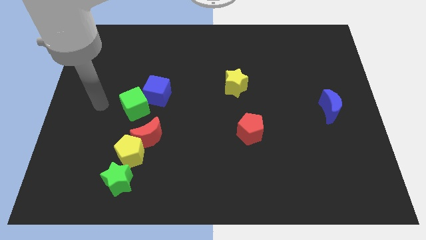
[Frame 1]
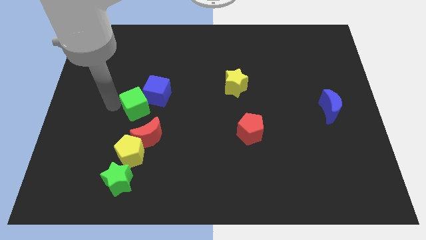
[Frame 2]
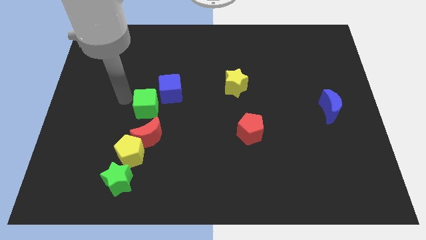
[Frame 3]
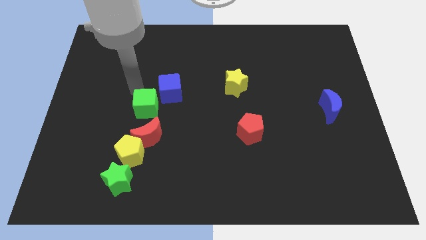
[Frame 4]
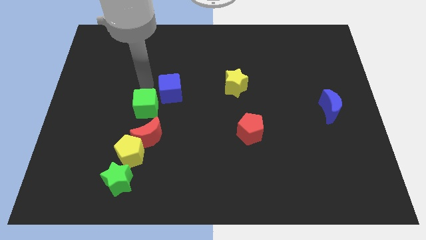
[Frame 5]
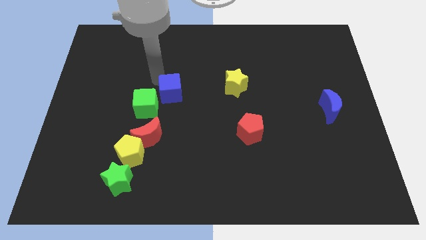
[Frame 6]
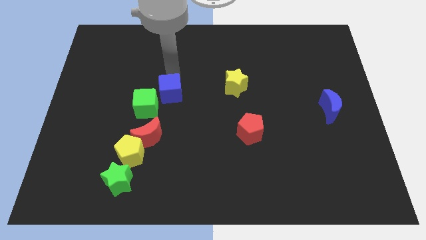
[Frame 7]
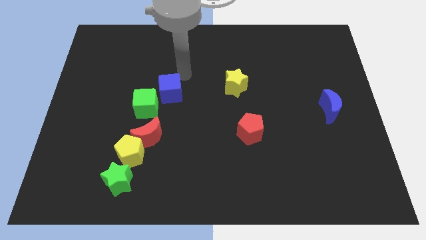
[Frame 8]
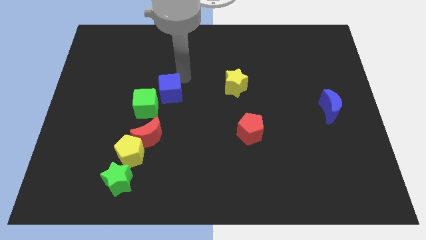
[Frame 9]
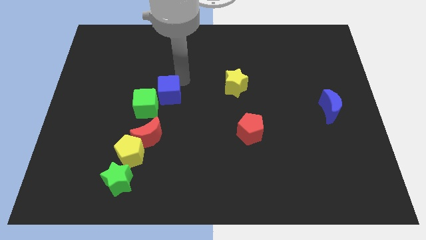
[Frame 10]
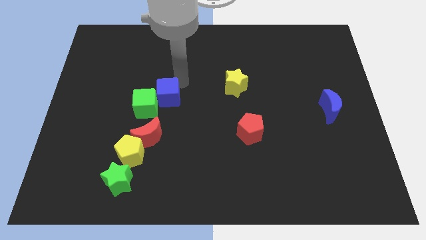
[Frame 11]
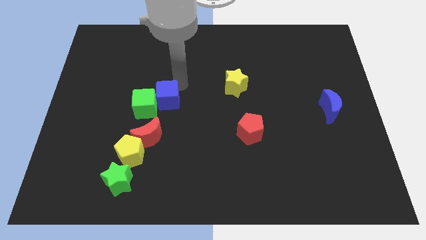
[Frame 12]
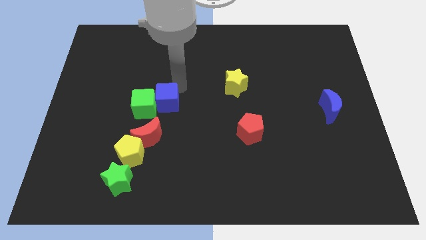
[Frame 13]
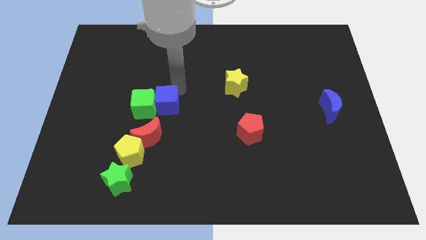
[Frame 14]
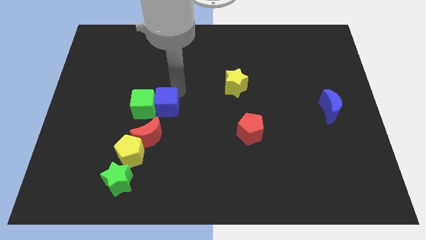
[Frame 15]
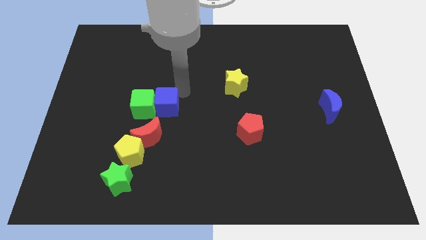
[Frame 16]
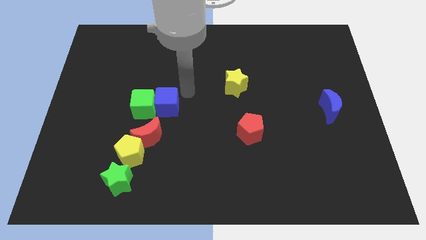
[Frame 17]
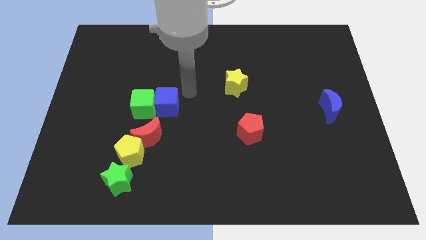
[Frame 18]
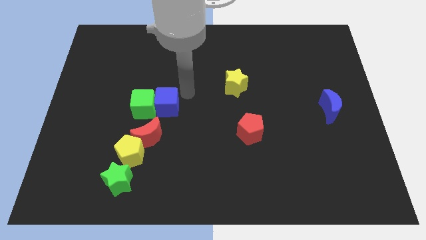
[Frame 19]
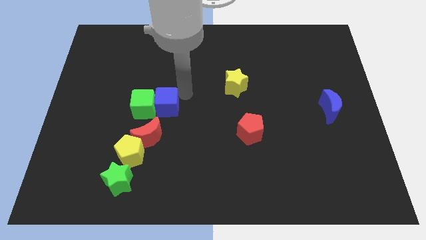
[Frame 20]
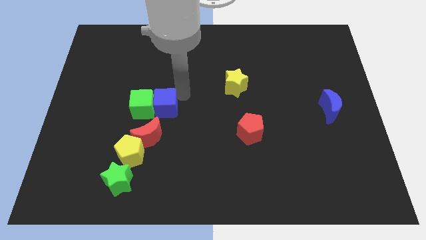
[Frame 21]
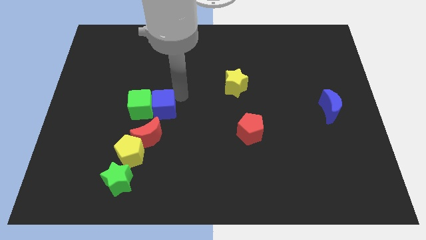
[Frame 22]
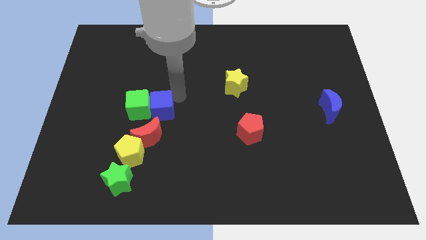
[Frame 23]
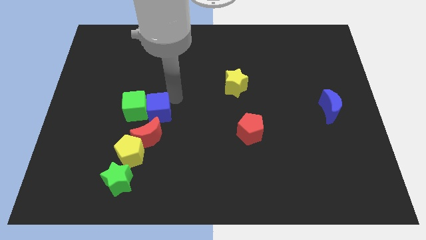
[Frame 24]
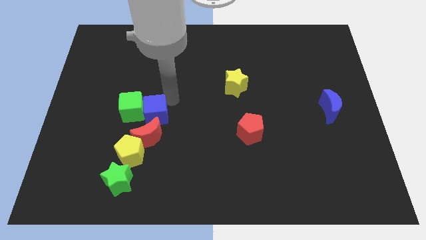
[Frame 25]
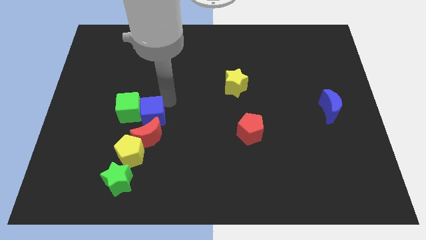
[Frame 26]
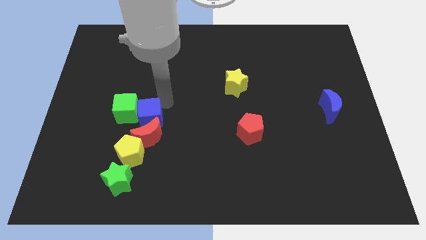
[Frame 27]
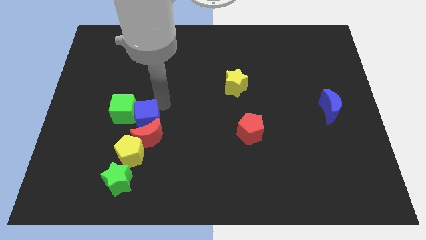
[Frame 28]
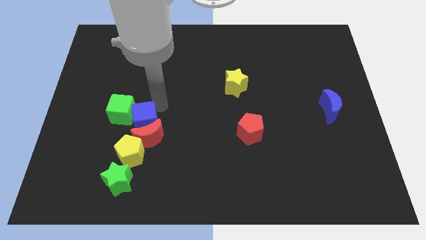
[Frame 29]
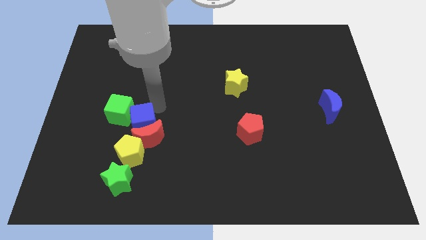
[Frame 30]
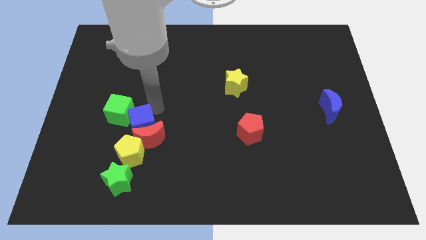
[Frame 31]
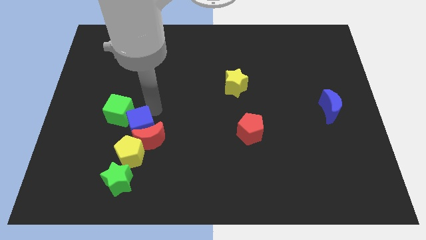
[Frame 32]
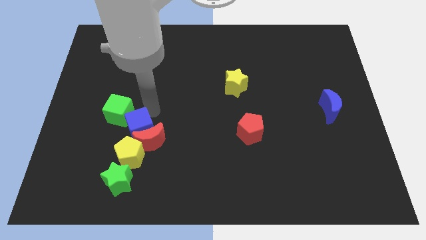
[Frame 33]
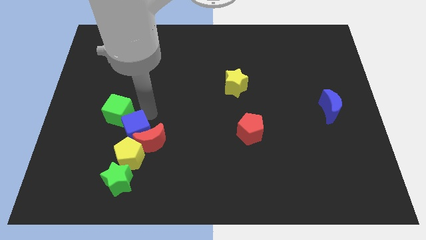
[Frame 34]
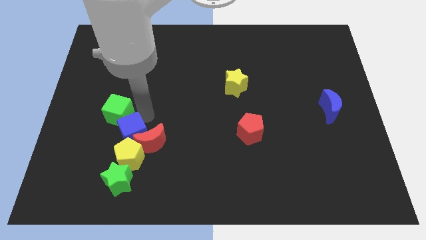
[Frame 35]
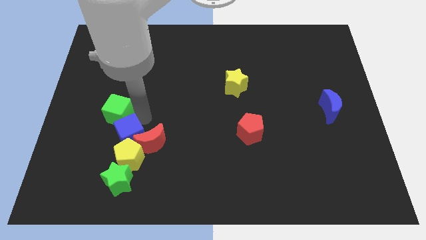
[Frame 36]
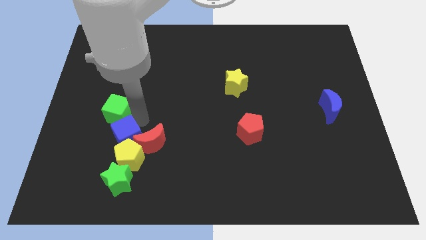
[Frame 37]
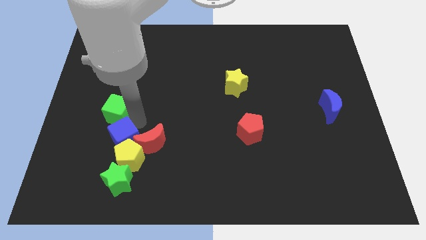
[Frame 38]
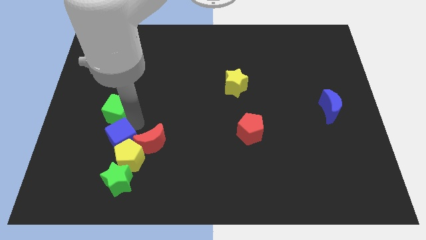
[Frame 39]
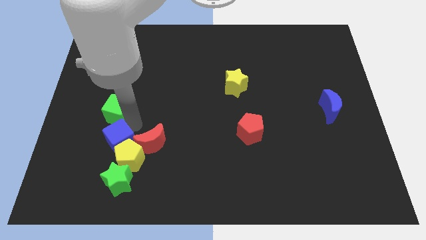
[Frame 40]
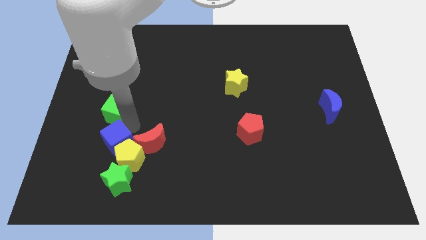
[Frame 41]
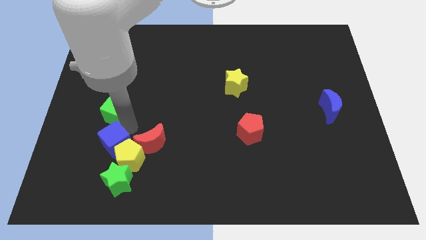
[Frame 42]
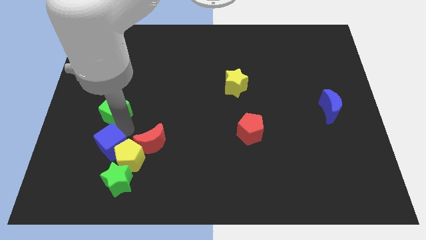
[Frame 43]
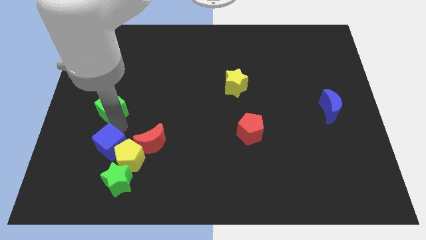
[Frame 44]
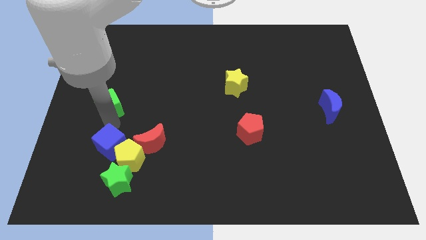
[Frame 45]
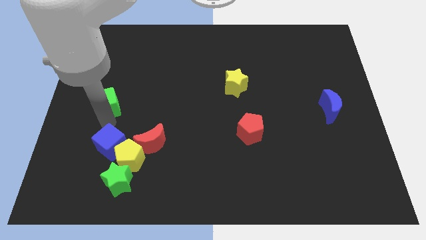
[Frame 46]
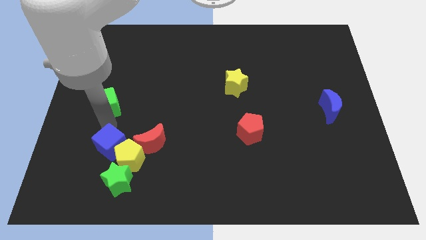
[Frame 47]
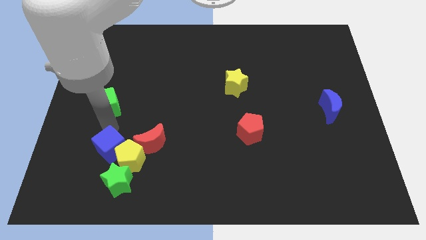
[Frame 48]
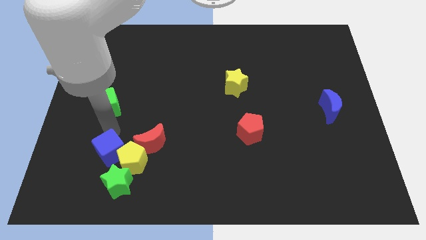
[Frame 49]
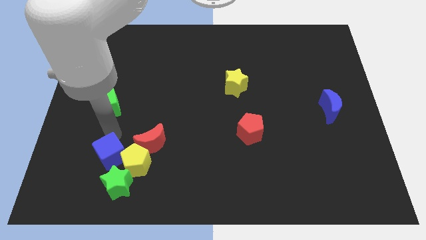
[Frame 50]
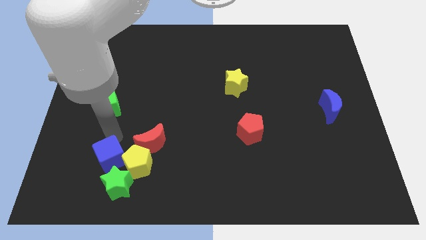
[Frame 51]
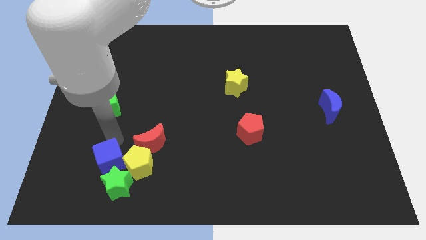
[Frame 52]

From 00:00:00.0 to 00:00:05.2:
slide the blue cube to the green star

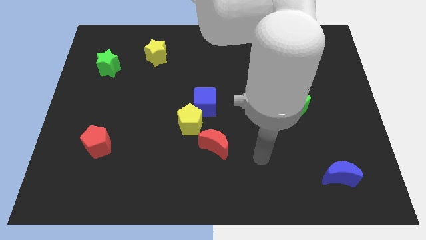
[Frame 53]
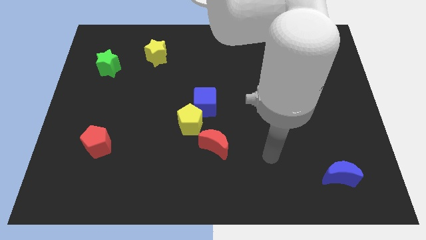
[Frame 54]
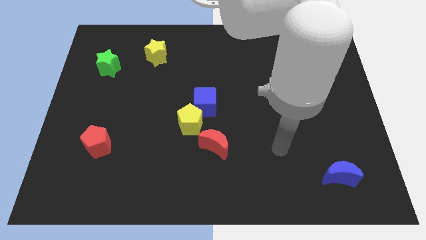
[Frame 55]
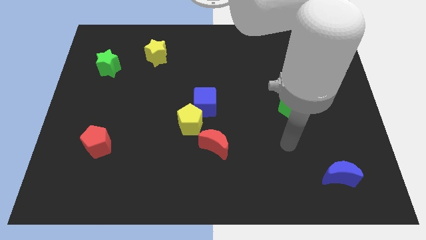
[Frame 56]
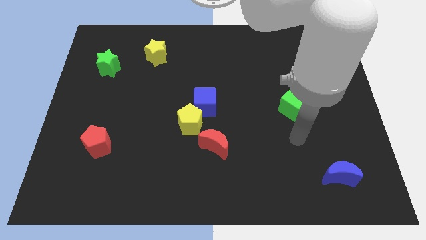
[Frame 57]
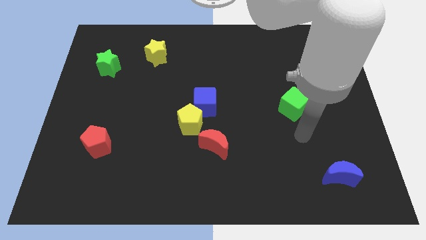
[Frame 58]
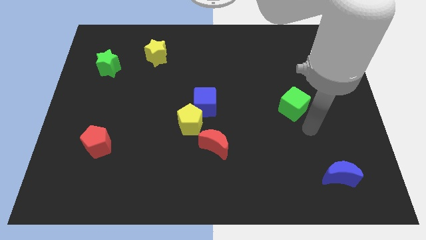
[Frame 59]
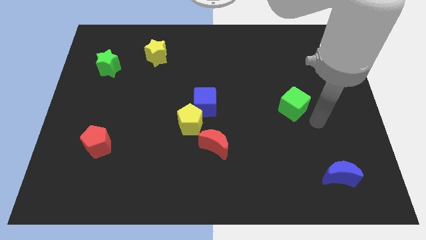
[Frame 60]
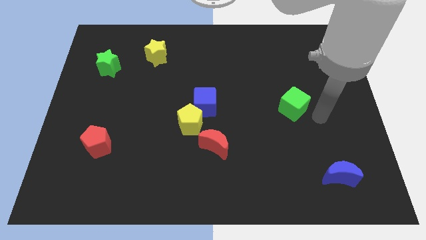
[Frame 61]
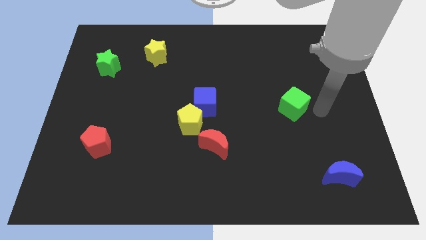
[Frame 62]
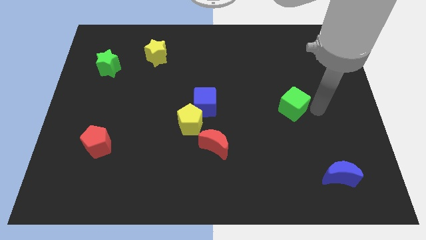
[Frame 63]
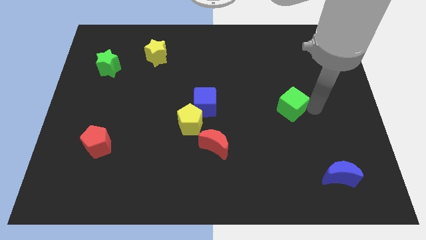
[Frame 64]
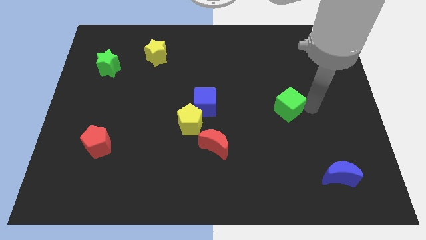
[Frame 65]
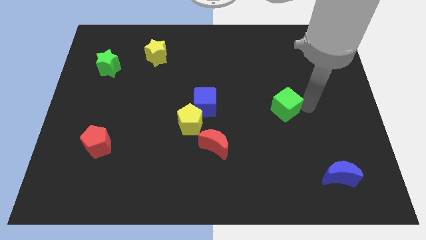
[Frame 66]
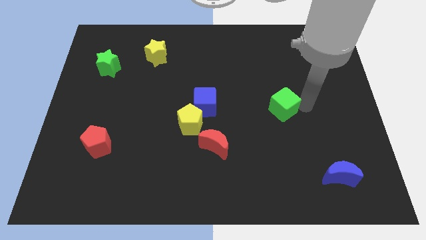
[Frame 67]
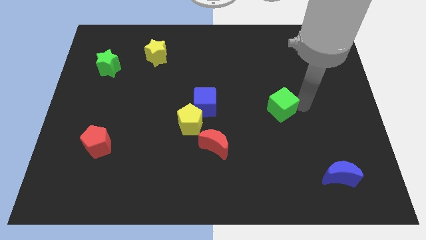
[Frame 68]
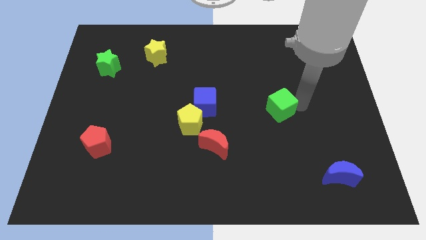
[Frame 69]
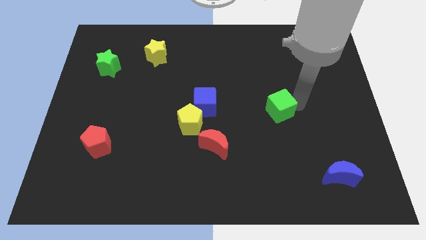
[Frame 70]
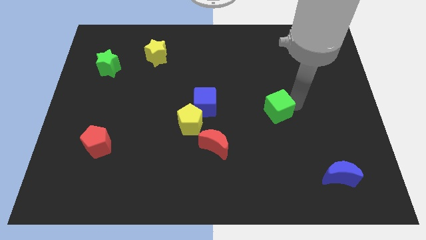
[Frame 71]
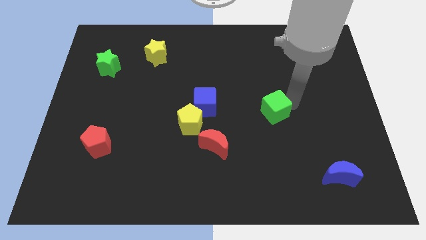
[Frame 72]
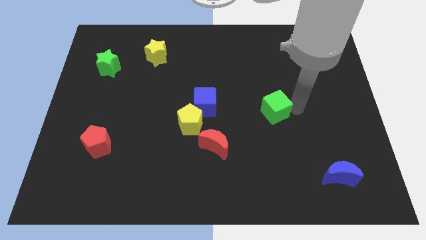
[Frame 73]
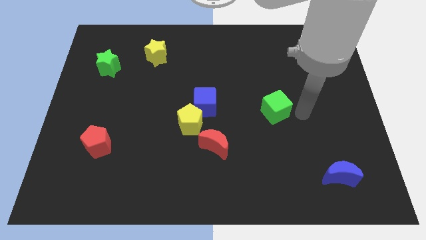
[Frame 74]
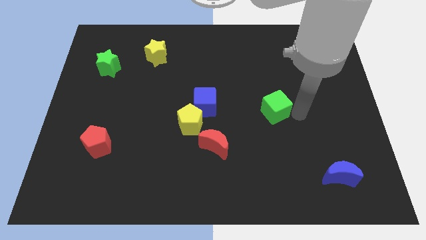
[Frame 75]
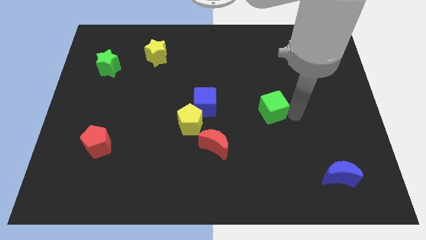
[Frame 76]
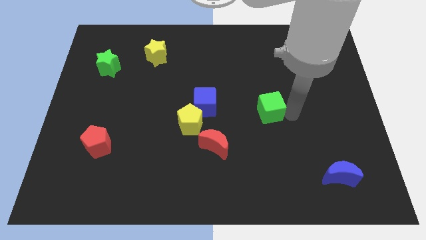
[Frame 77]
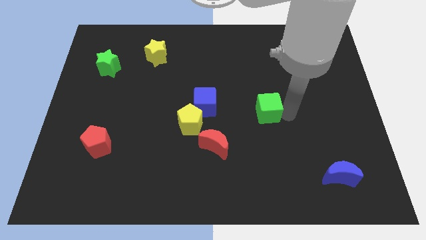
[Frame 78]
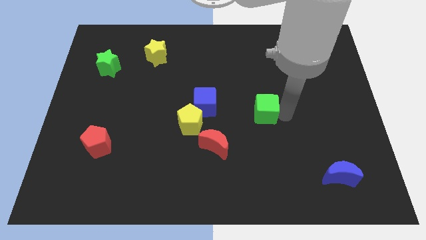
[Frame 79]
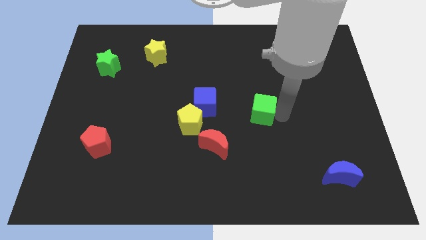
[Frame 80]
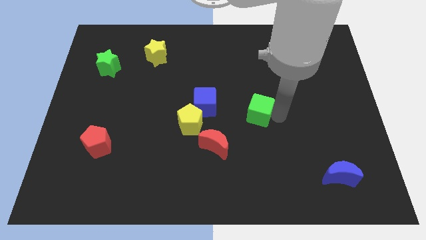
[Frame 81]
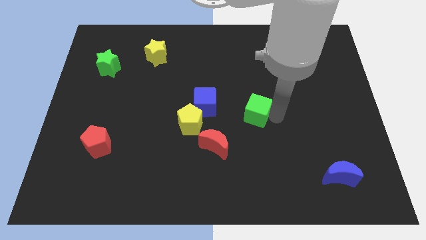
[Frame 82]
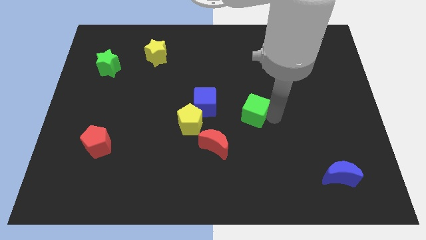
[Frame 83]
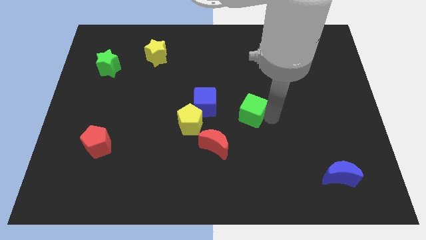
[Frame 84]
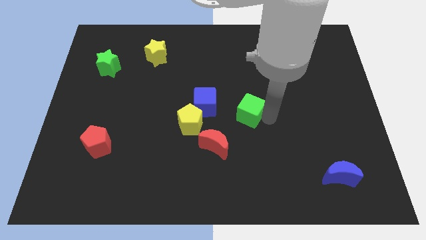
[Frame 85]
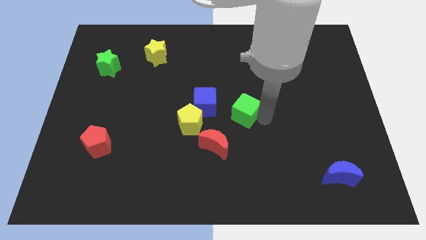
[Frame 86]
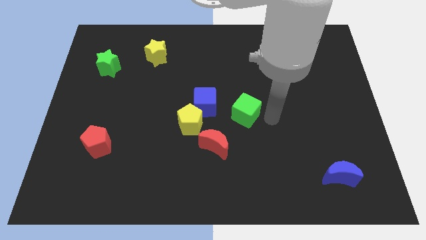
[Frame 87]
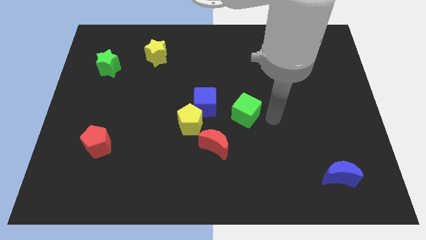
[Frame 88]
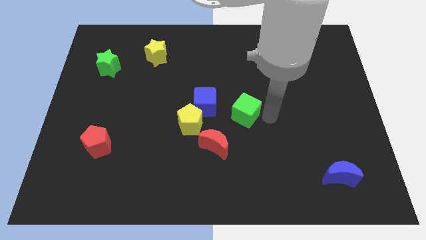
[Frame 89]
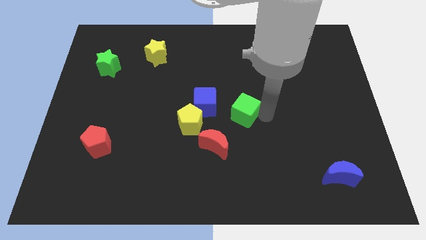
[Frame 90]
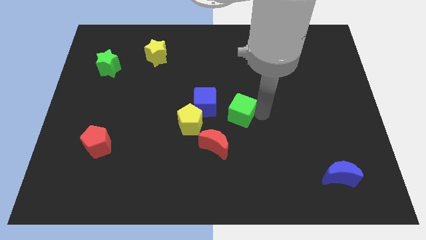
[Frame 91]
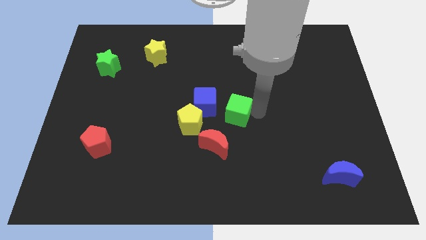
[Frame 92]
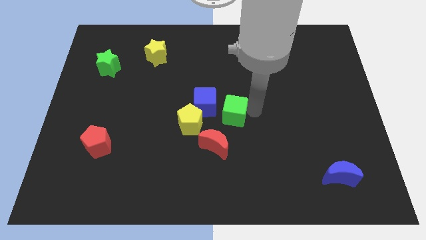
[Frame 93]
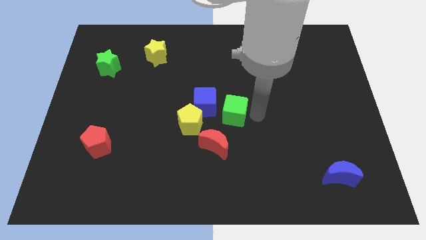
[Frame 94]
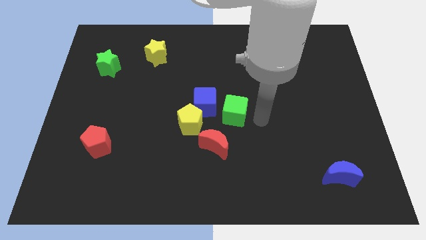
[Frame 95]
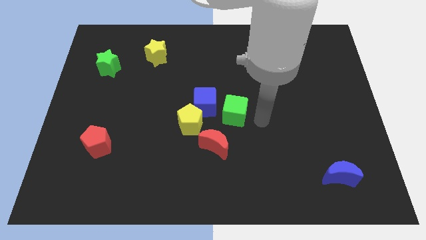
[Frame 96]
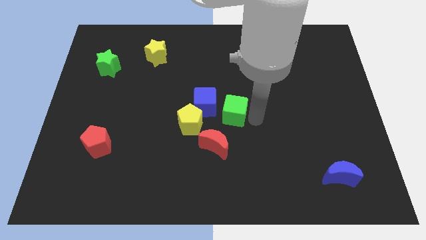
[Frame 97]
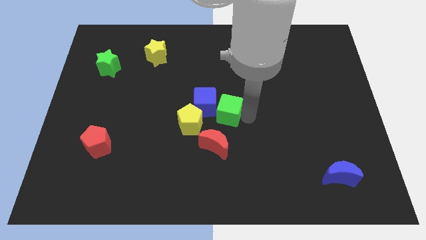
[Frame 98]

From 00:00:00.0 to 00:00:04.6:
move the green cube to the blue cube
